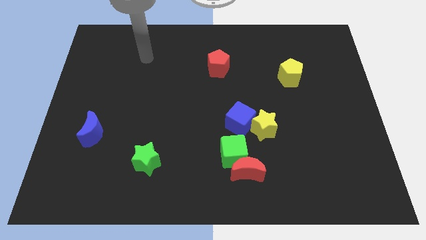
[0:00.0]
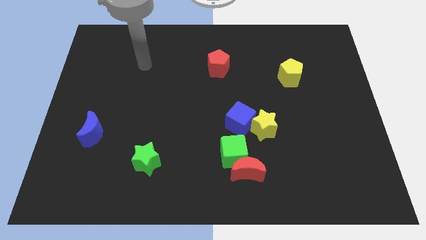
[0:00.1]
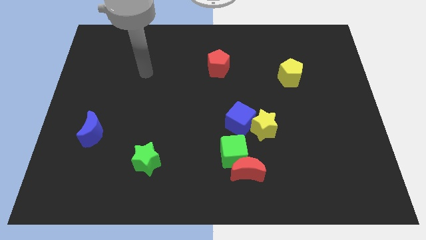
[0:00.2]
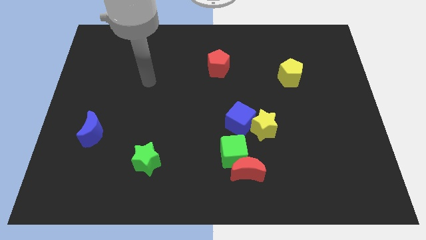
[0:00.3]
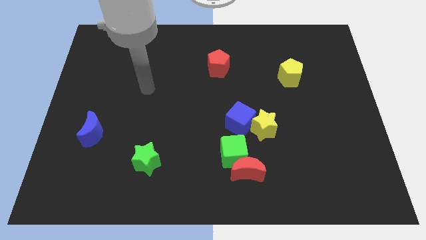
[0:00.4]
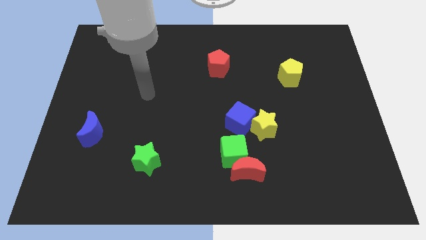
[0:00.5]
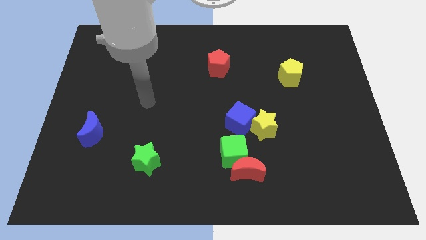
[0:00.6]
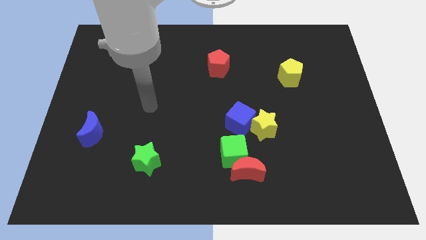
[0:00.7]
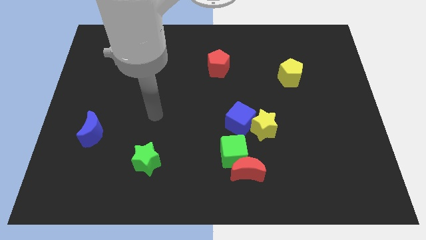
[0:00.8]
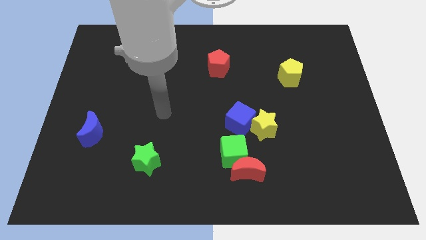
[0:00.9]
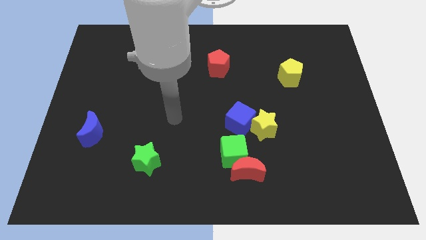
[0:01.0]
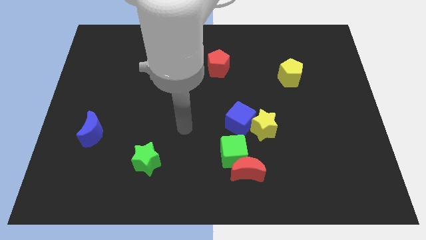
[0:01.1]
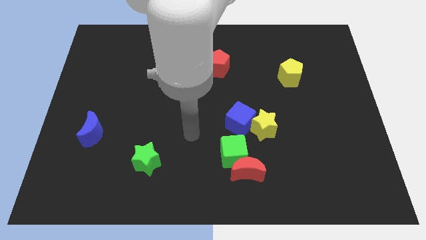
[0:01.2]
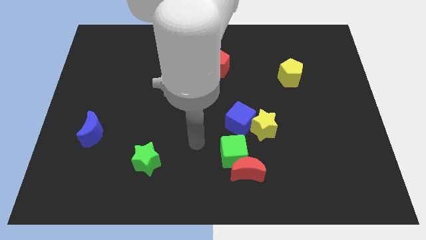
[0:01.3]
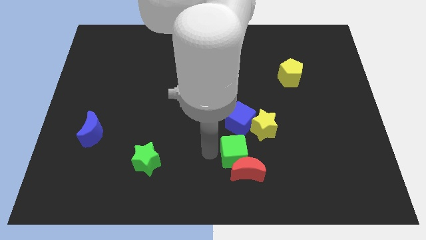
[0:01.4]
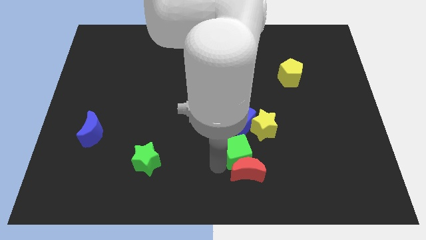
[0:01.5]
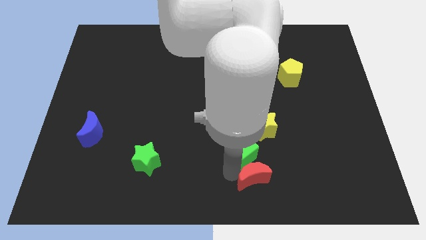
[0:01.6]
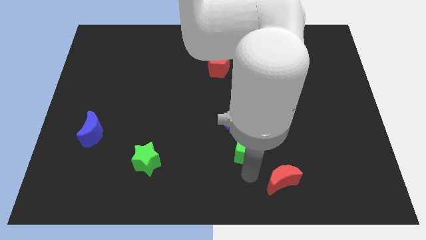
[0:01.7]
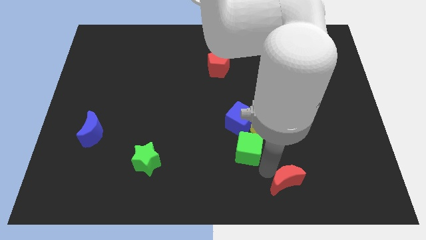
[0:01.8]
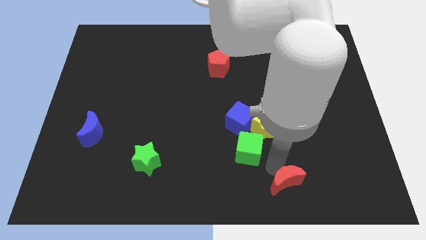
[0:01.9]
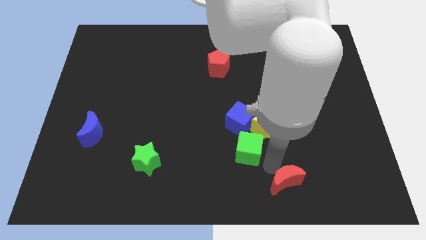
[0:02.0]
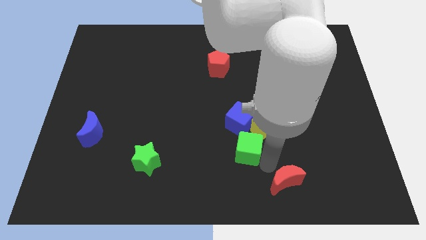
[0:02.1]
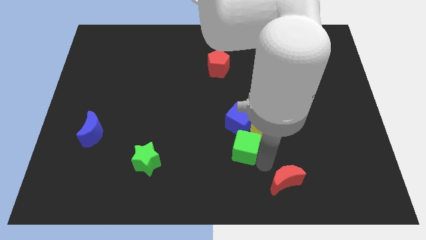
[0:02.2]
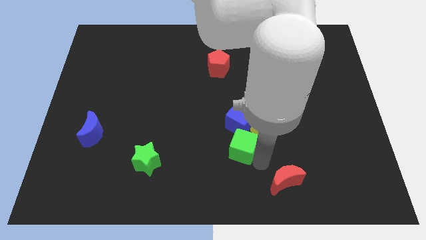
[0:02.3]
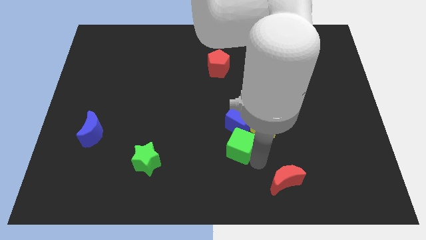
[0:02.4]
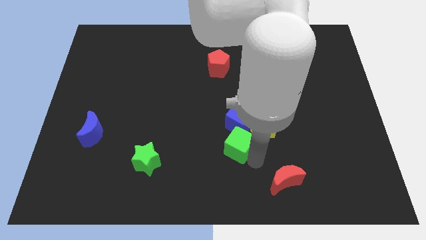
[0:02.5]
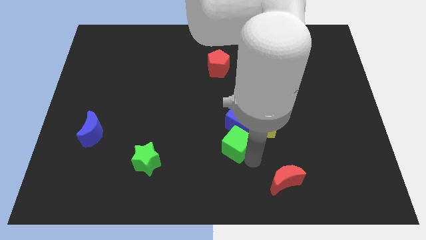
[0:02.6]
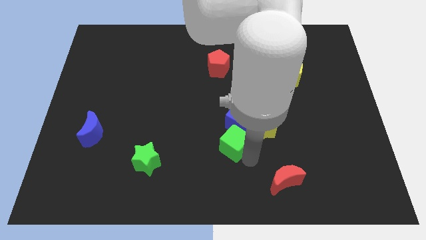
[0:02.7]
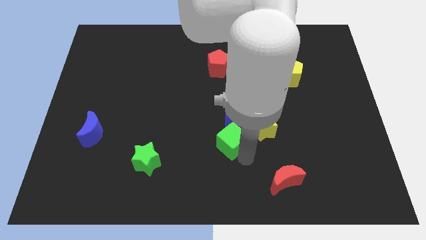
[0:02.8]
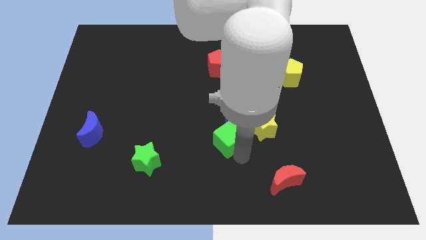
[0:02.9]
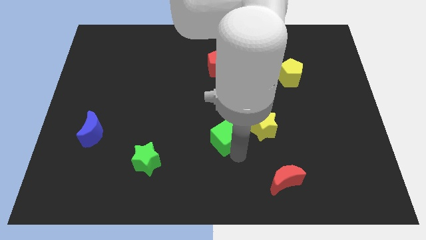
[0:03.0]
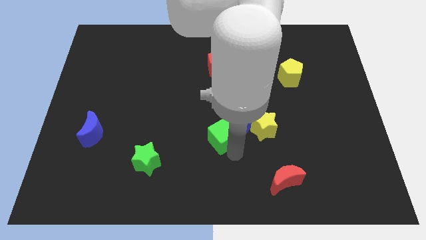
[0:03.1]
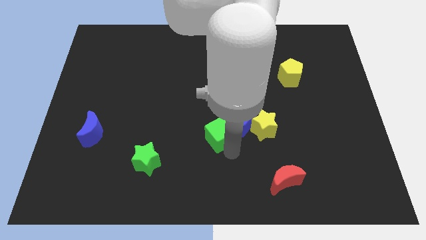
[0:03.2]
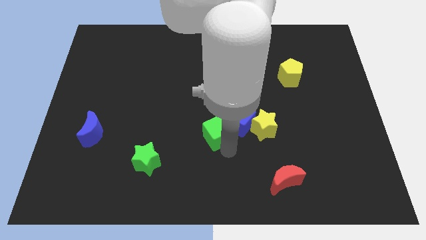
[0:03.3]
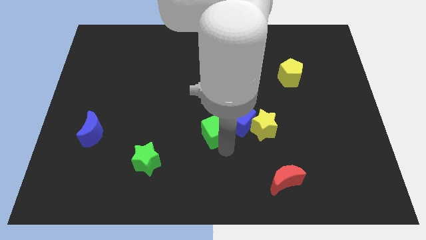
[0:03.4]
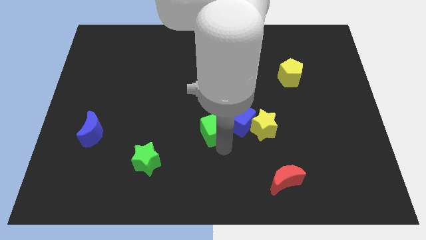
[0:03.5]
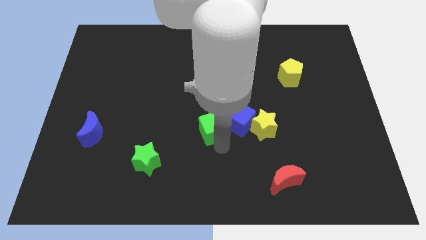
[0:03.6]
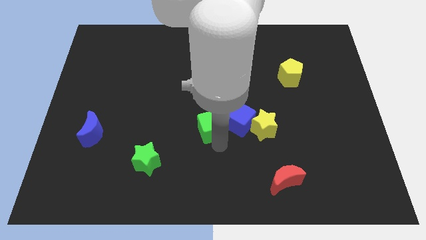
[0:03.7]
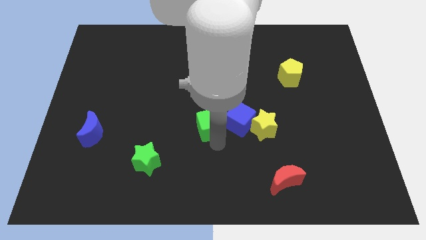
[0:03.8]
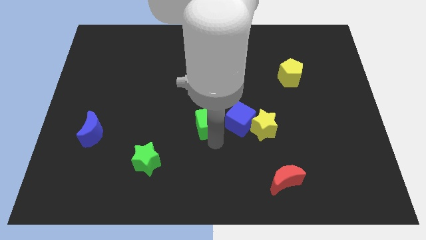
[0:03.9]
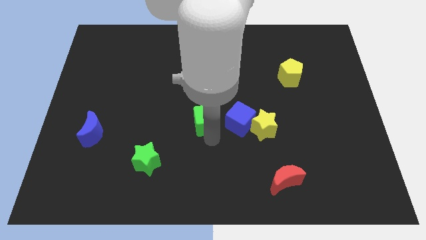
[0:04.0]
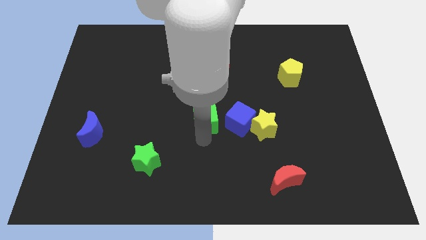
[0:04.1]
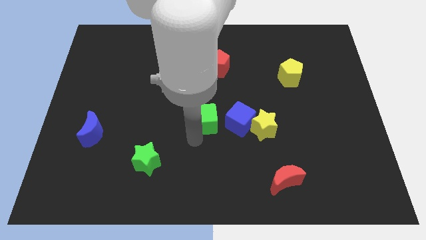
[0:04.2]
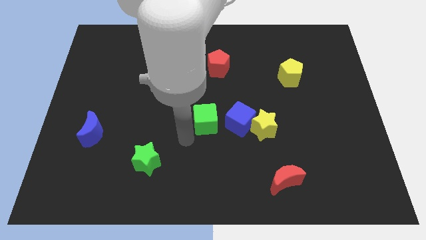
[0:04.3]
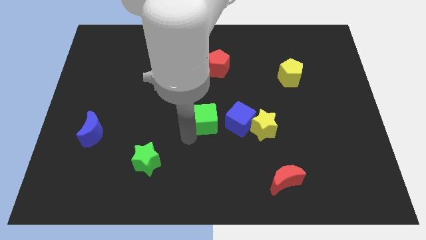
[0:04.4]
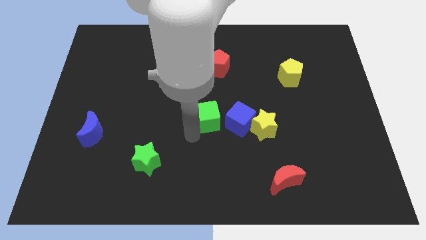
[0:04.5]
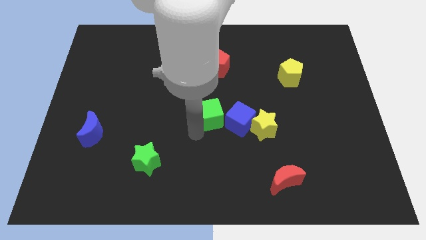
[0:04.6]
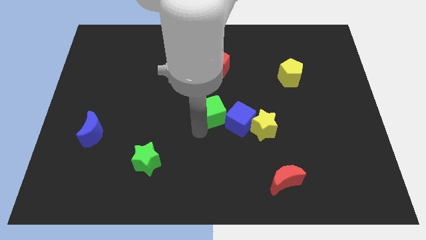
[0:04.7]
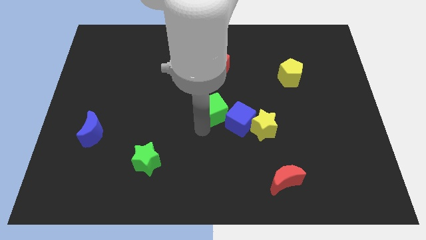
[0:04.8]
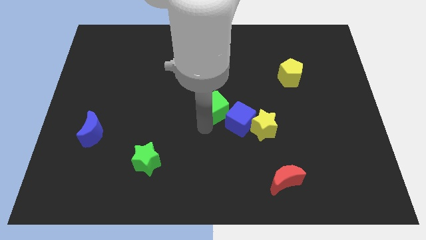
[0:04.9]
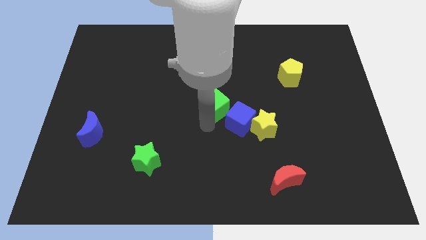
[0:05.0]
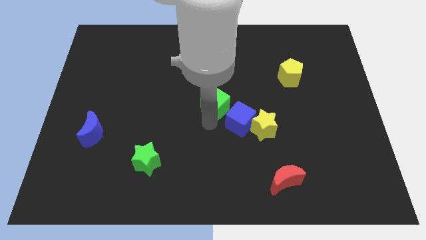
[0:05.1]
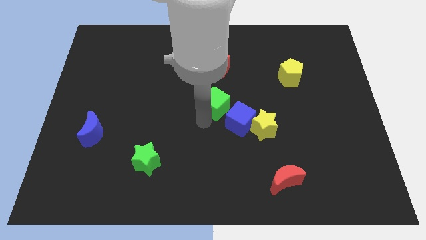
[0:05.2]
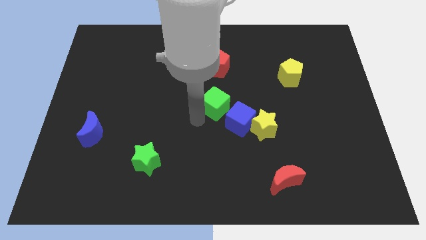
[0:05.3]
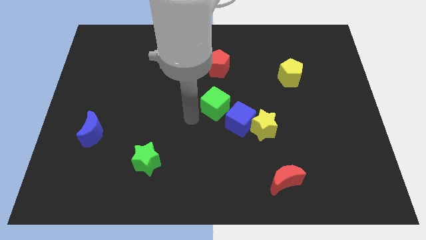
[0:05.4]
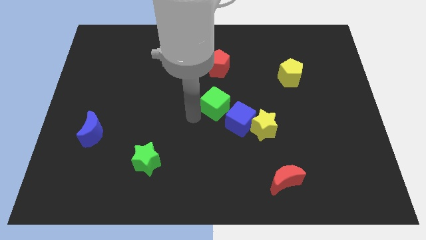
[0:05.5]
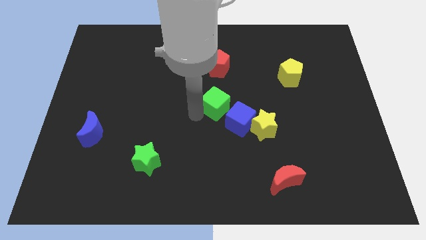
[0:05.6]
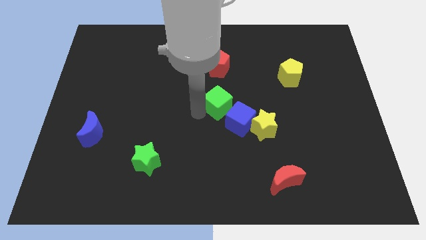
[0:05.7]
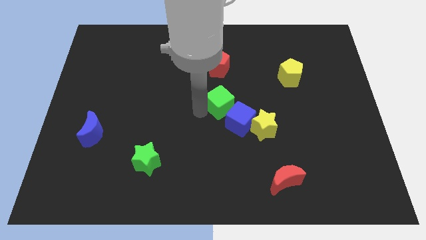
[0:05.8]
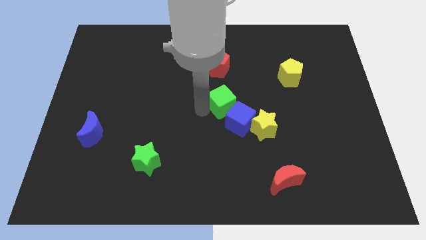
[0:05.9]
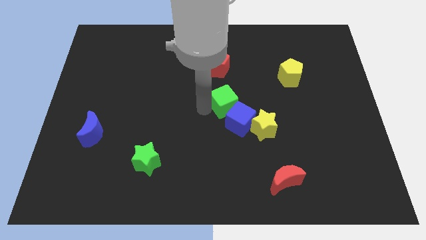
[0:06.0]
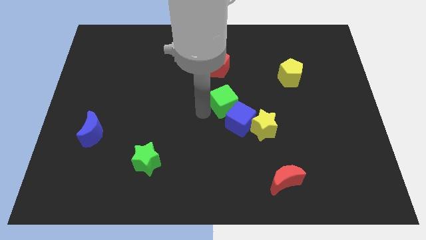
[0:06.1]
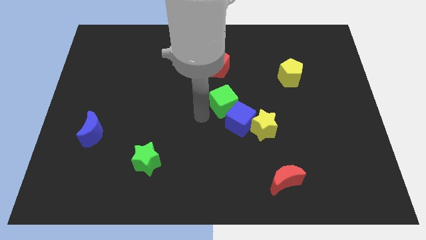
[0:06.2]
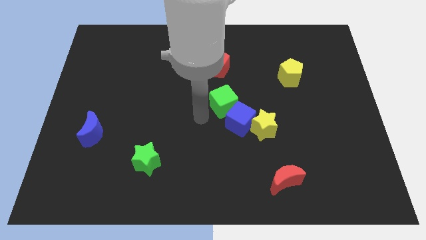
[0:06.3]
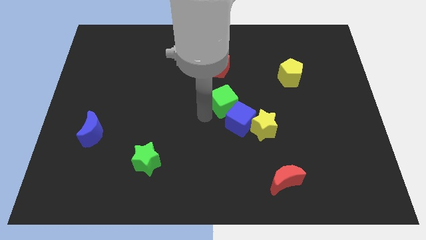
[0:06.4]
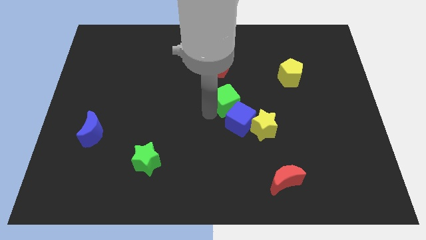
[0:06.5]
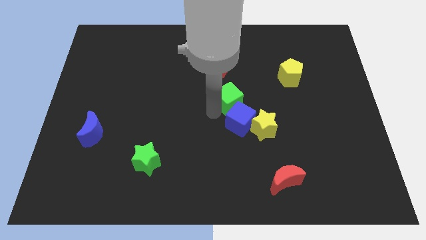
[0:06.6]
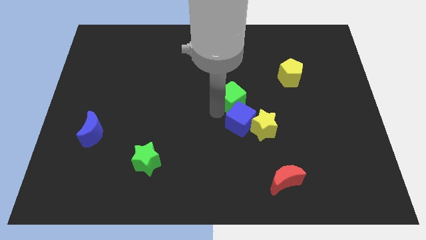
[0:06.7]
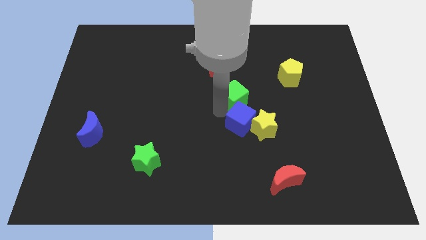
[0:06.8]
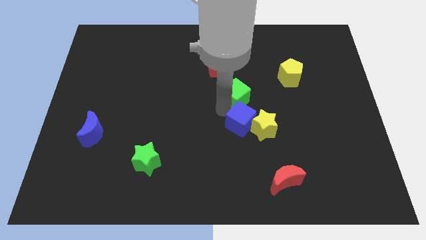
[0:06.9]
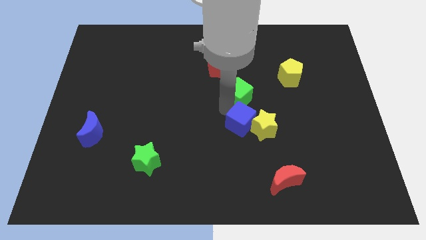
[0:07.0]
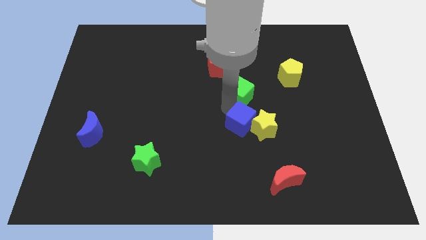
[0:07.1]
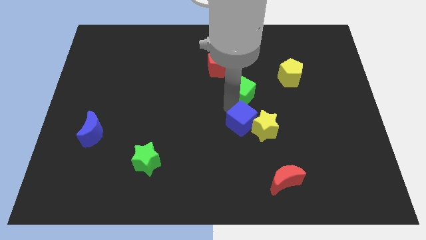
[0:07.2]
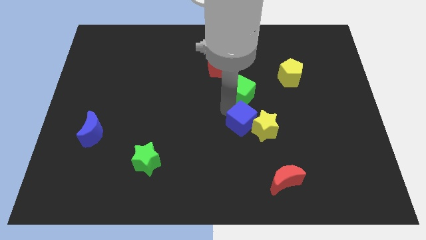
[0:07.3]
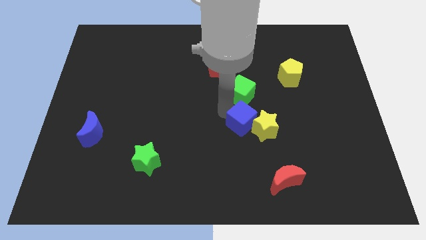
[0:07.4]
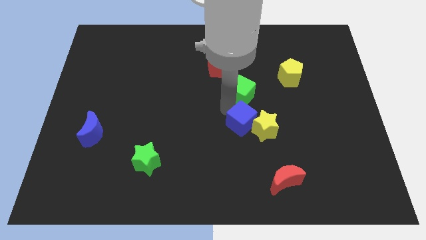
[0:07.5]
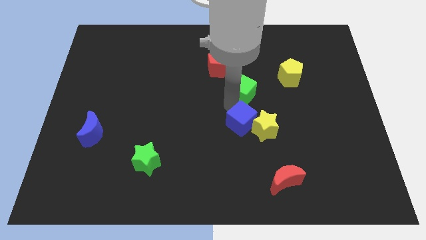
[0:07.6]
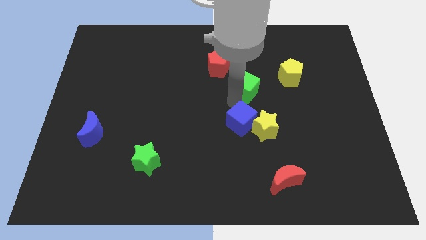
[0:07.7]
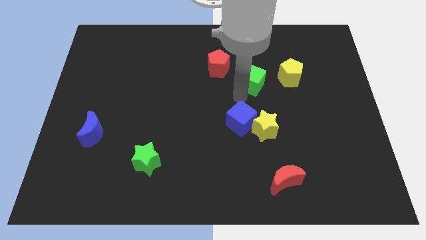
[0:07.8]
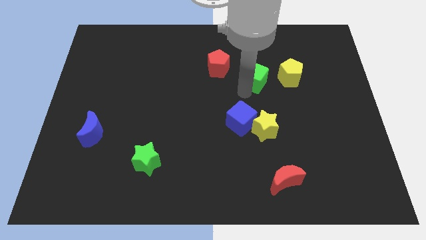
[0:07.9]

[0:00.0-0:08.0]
push the green cube just right of the red pentagon
